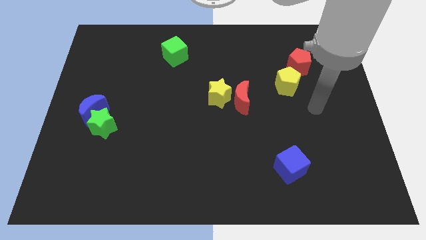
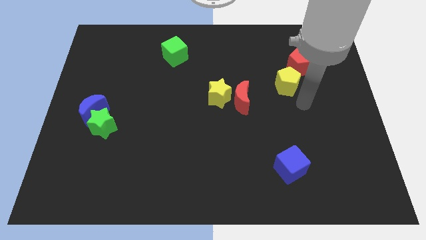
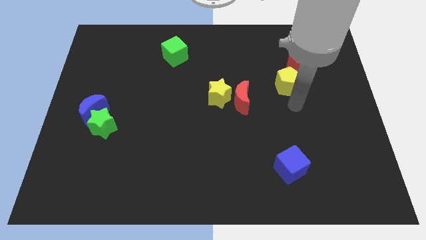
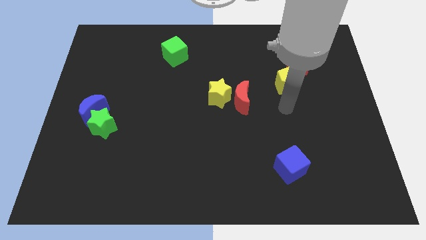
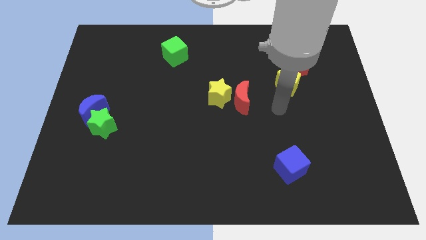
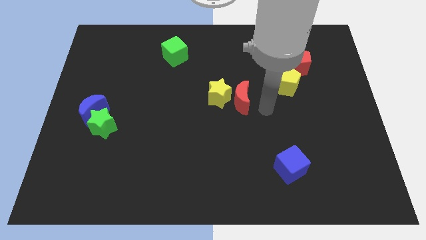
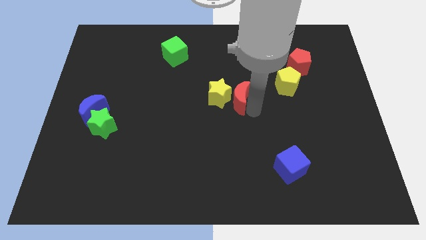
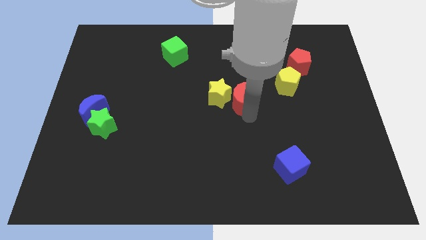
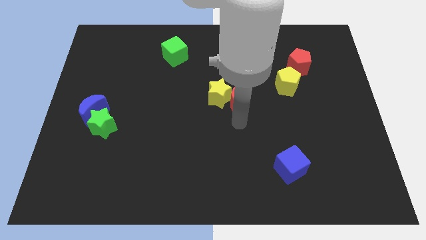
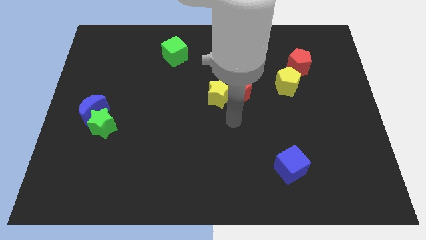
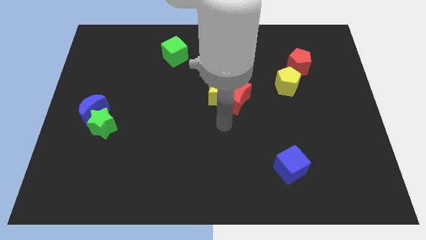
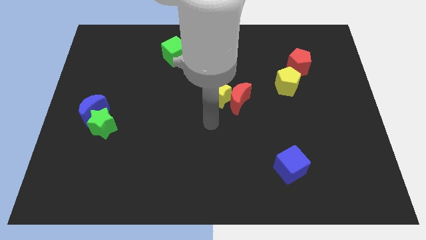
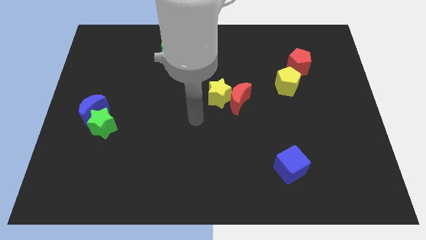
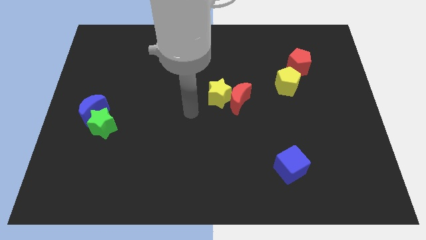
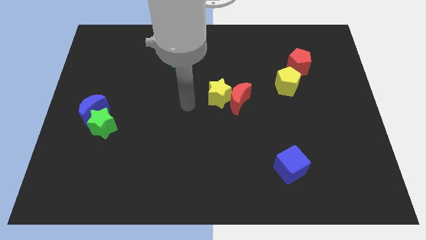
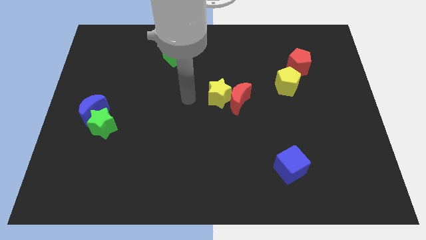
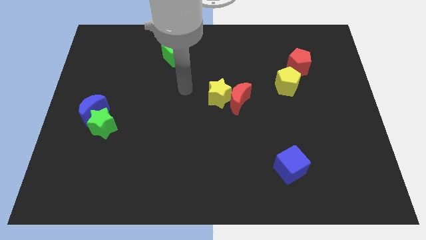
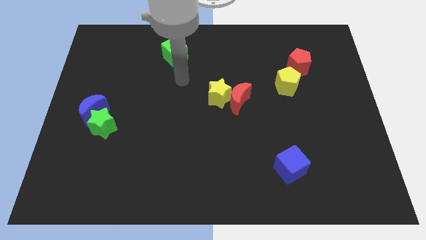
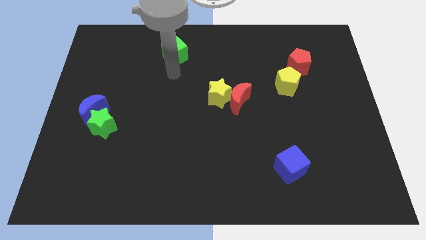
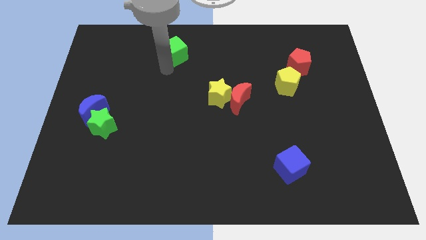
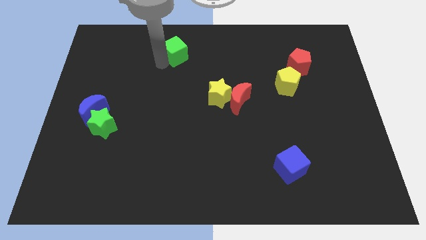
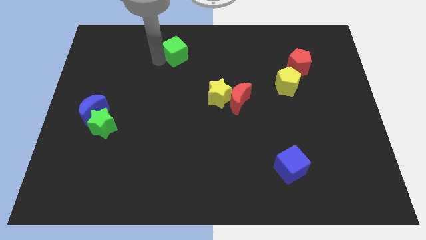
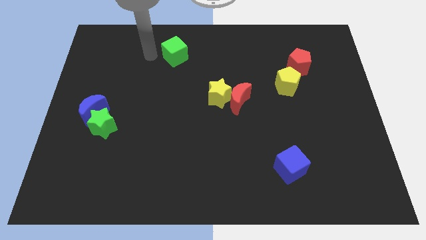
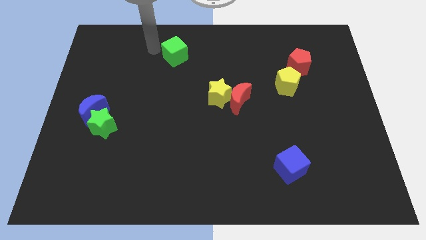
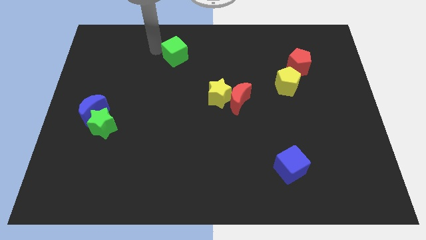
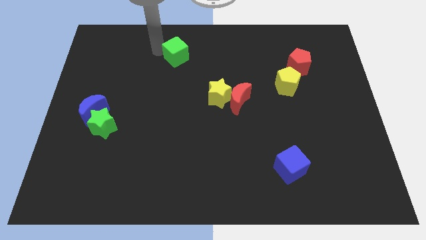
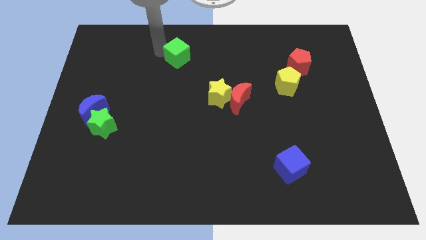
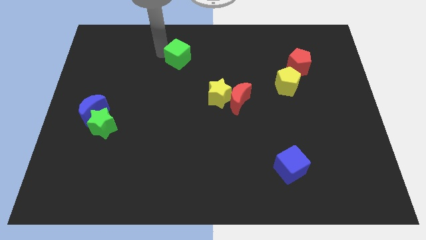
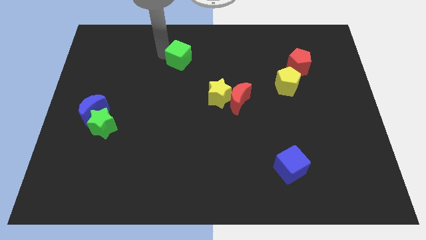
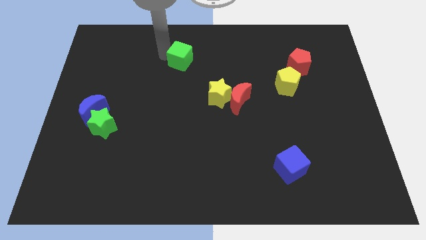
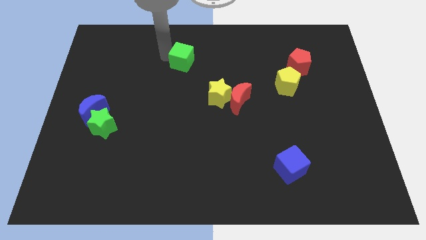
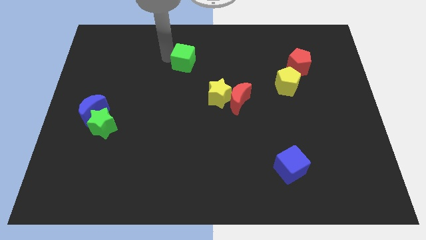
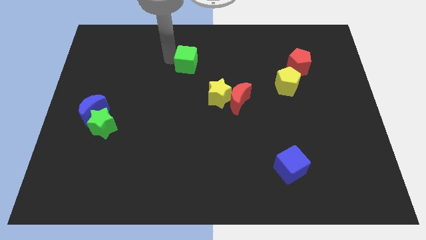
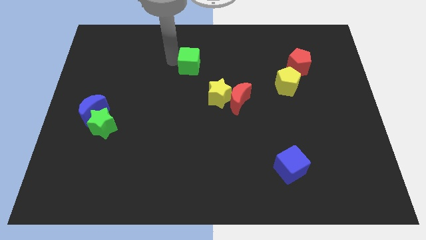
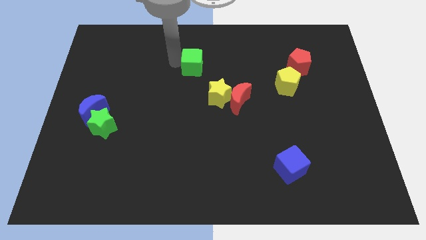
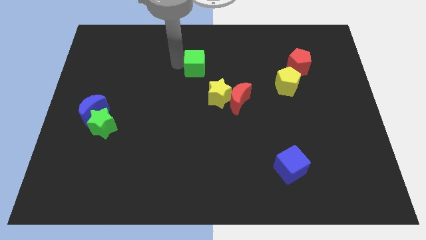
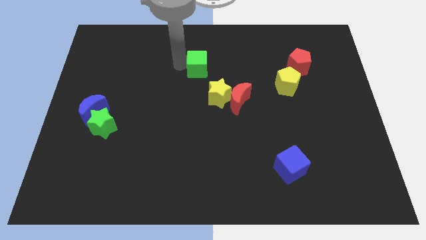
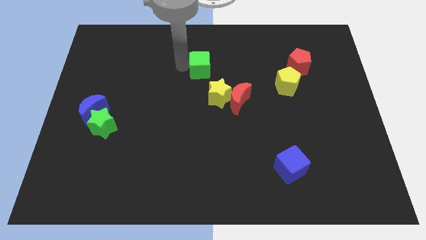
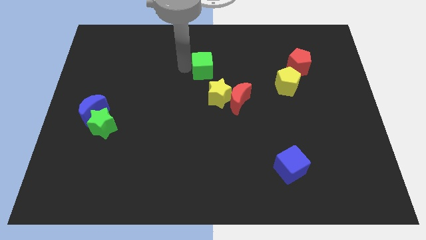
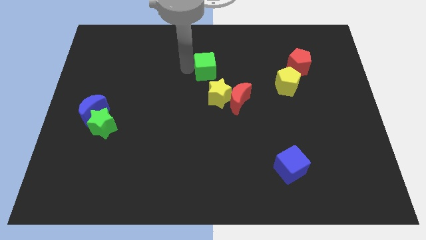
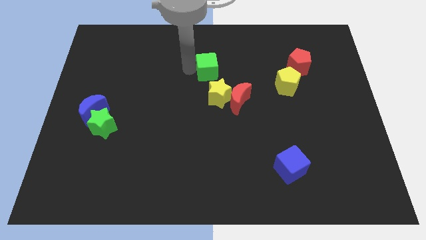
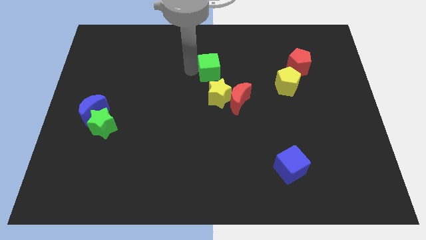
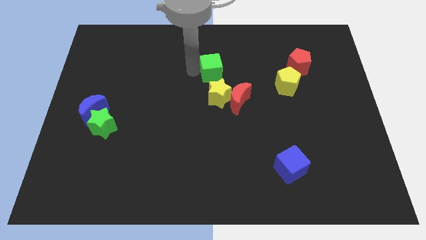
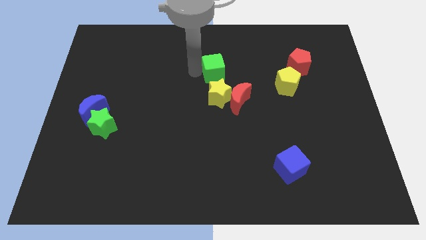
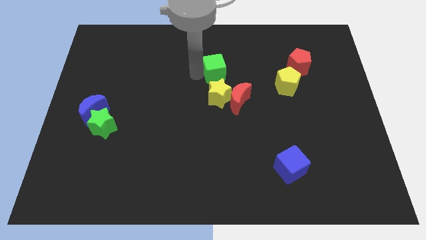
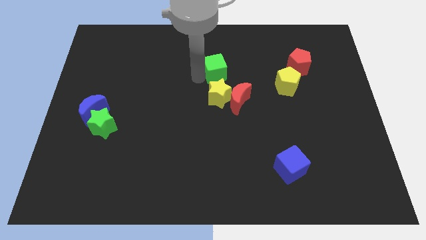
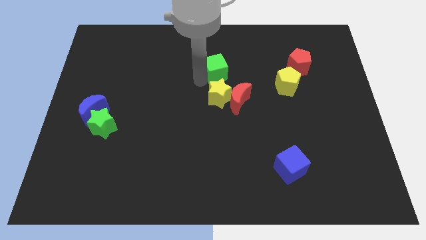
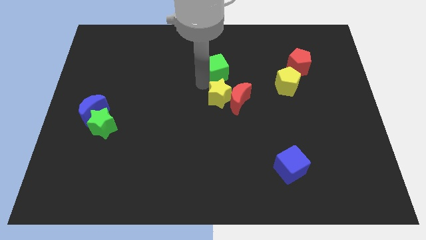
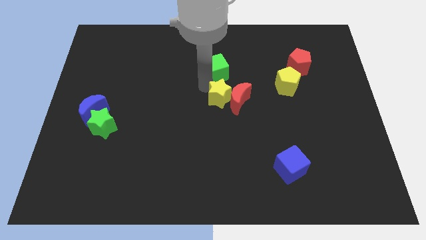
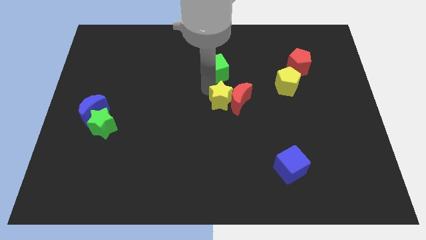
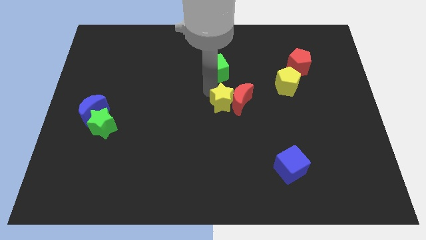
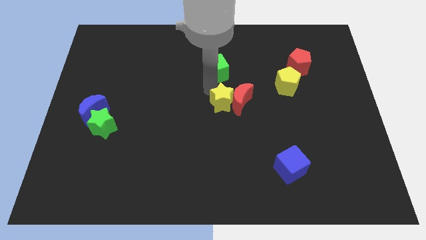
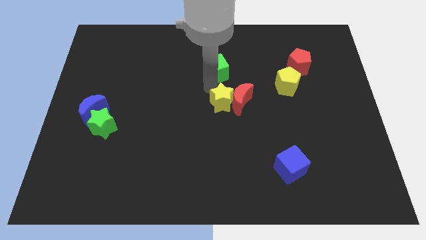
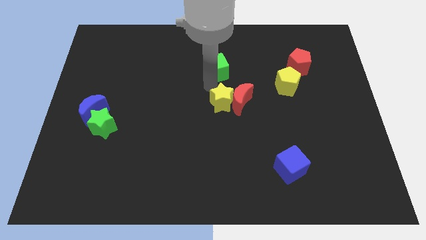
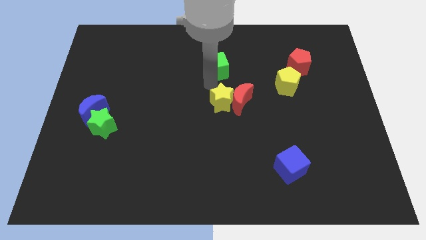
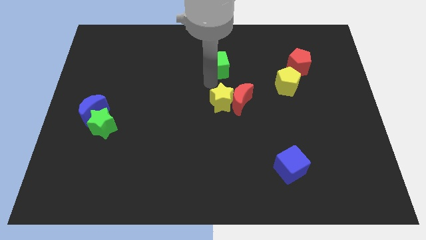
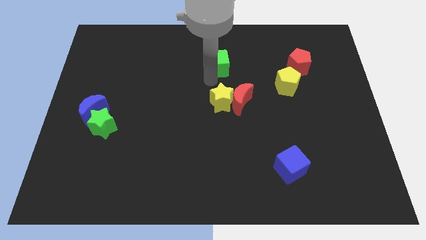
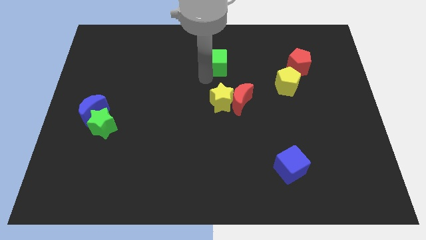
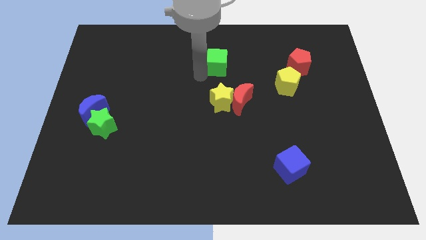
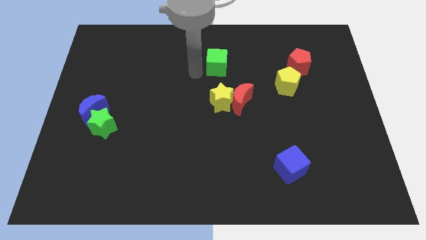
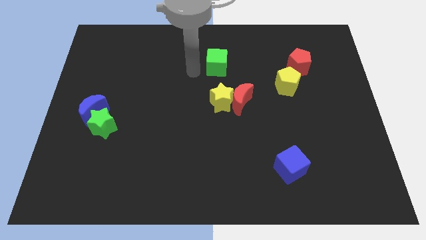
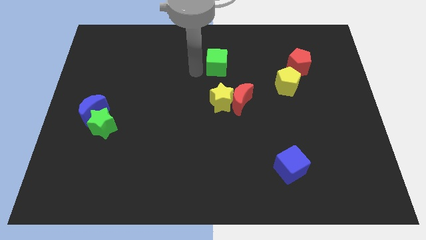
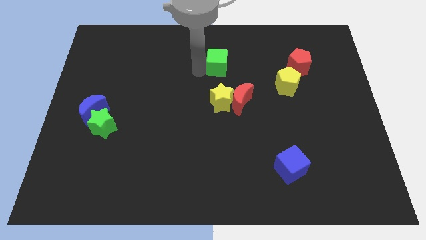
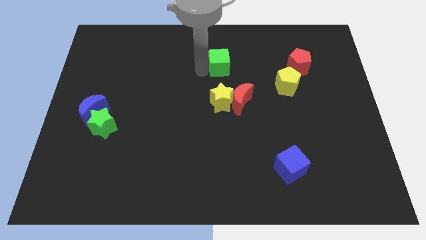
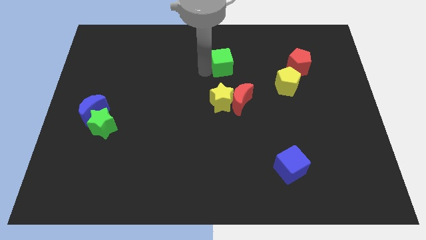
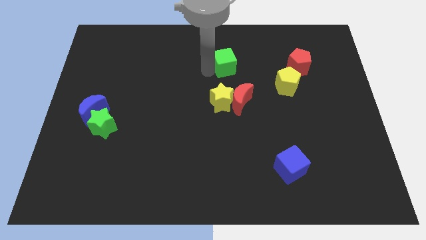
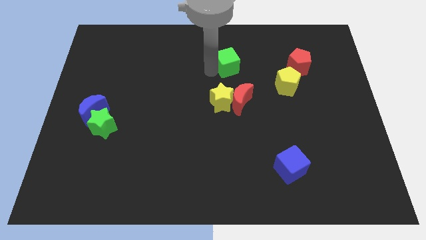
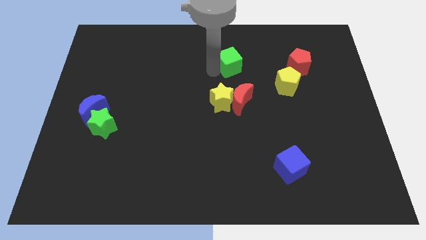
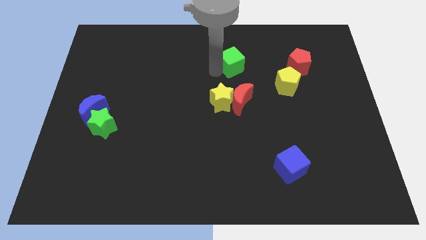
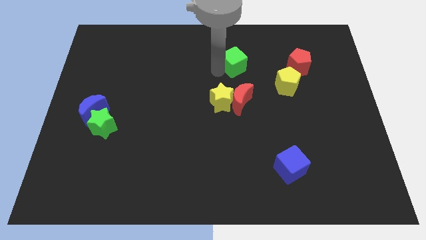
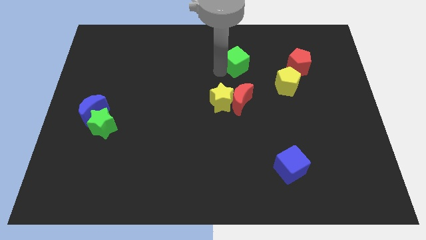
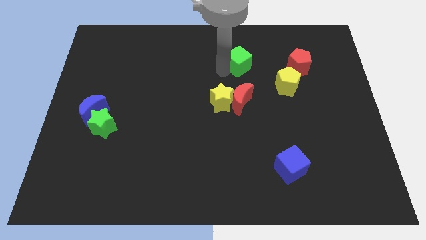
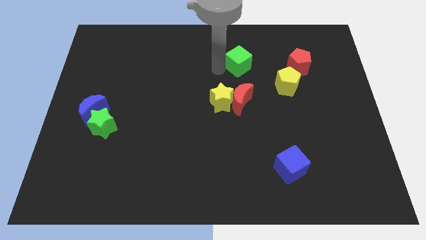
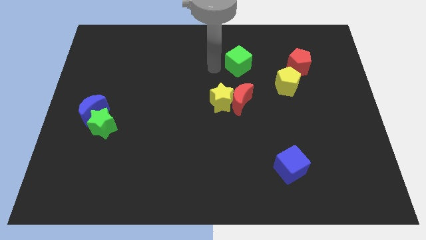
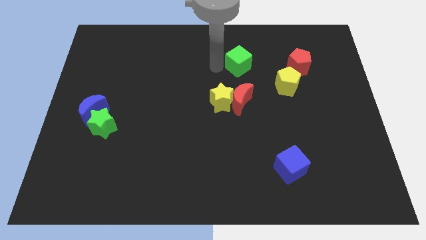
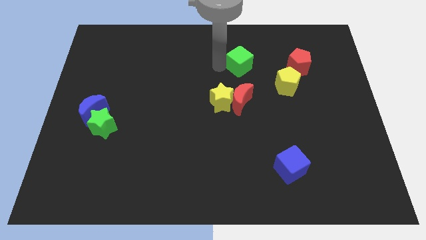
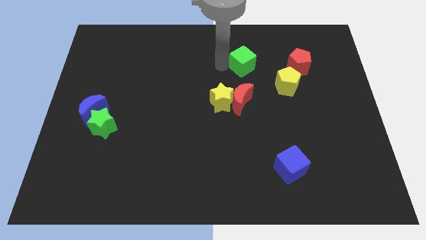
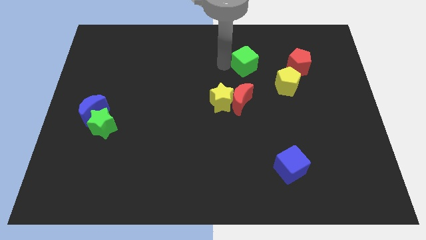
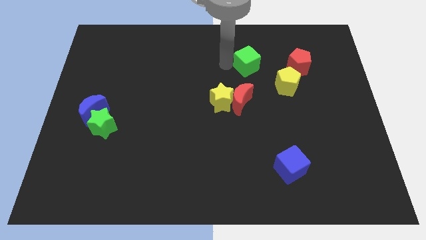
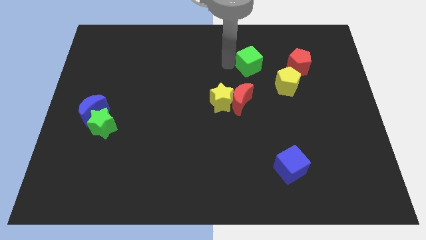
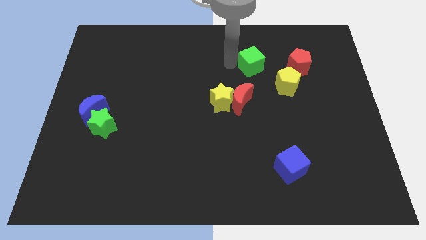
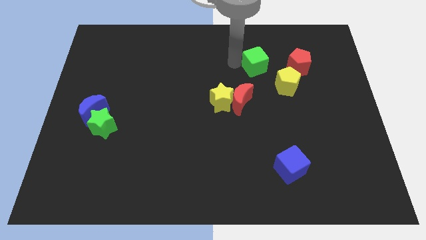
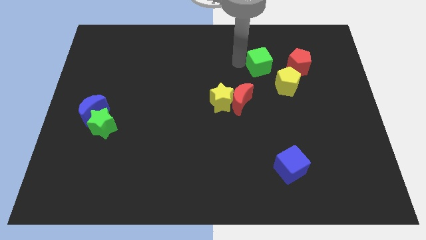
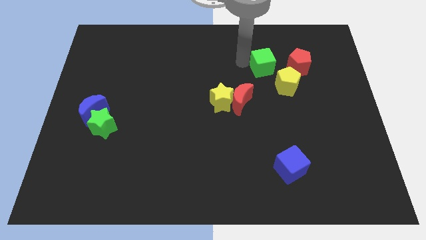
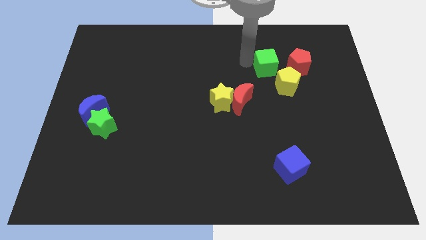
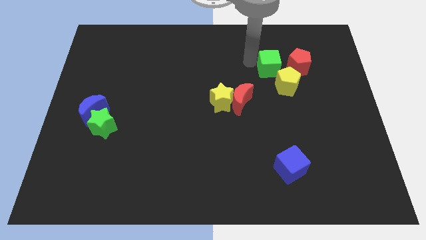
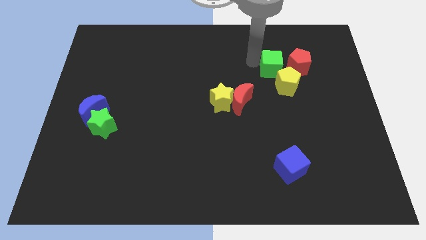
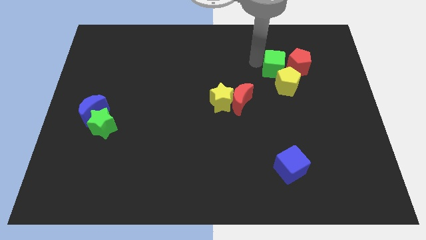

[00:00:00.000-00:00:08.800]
put the green cube close to the red pentagon
